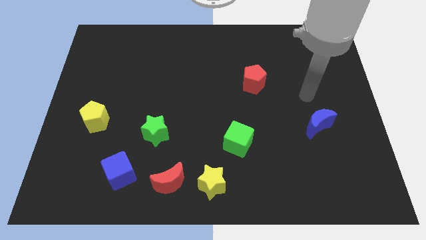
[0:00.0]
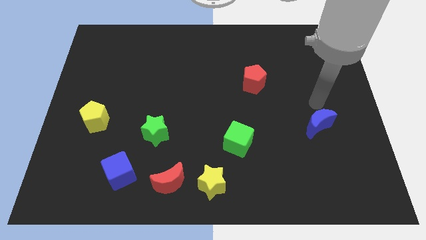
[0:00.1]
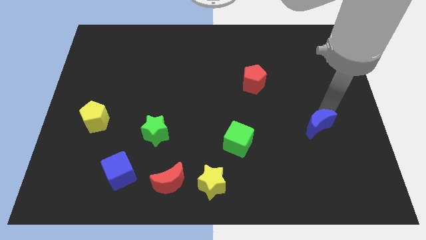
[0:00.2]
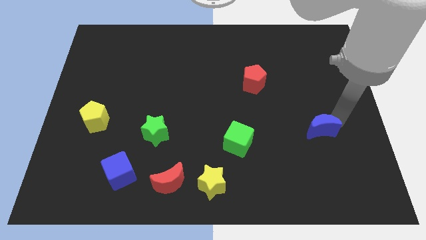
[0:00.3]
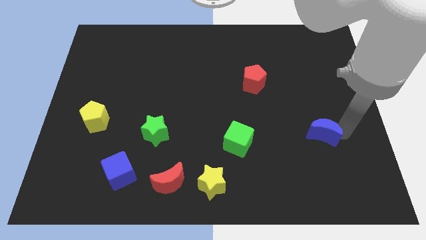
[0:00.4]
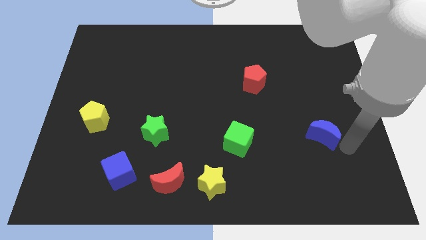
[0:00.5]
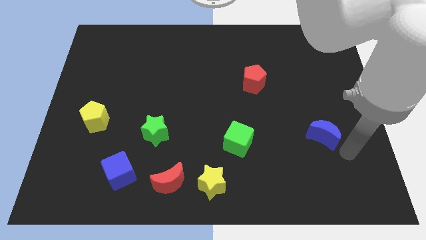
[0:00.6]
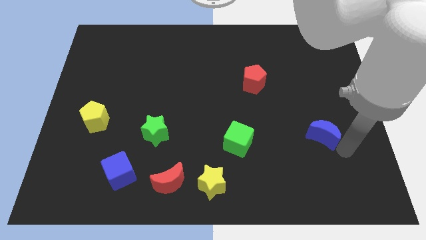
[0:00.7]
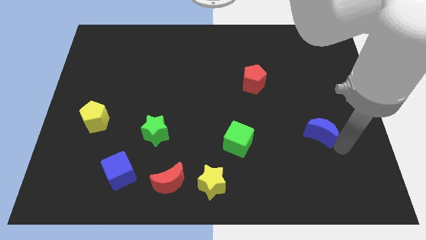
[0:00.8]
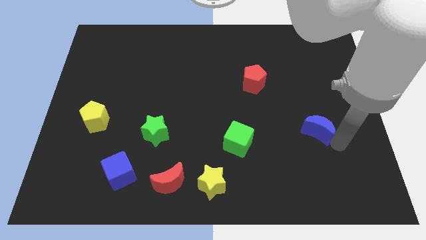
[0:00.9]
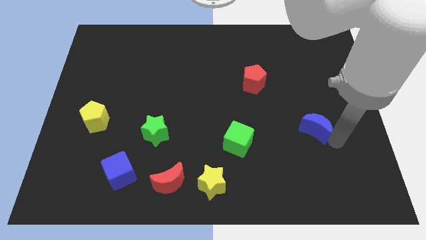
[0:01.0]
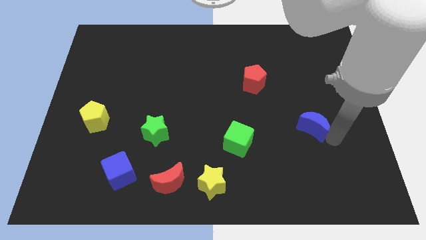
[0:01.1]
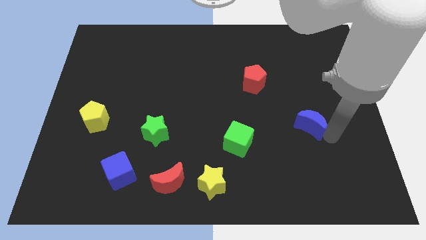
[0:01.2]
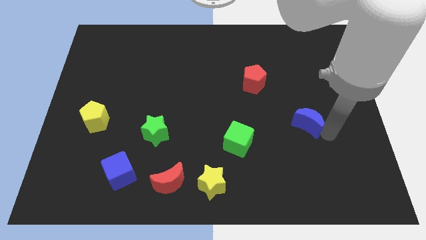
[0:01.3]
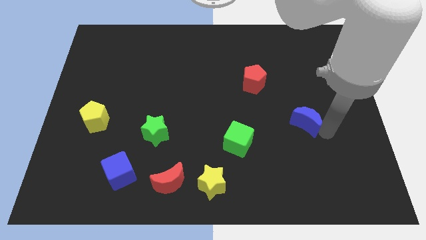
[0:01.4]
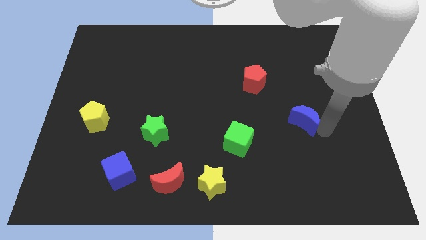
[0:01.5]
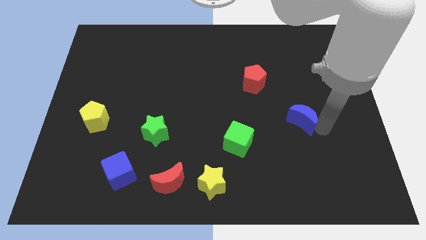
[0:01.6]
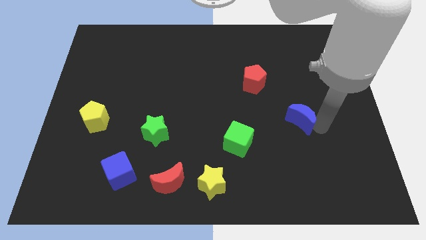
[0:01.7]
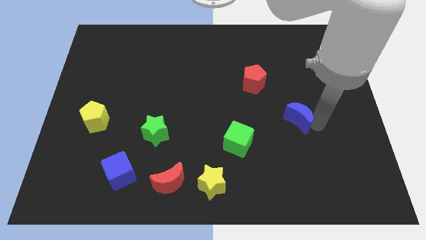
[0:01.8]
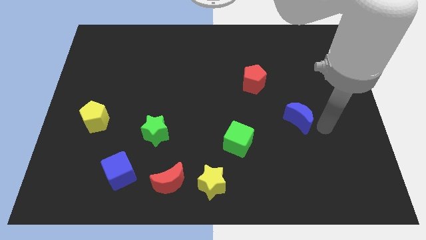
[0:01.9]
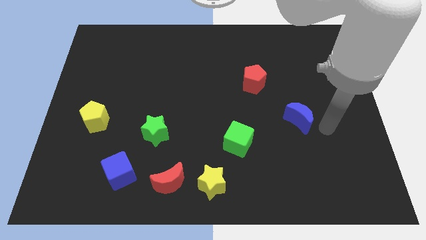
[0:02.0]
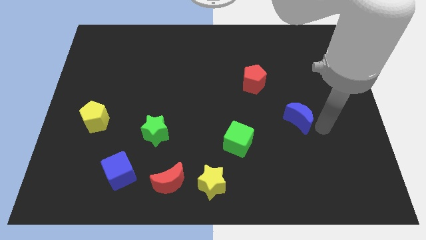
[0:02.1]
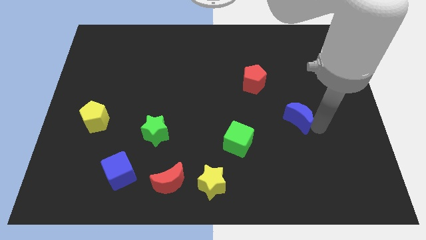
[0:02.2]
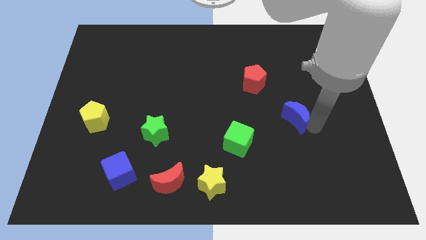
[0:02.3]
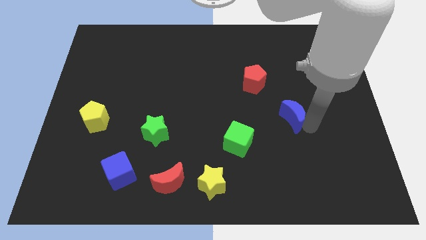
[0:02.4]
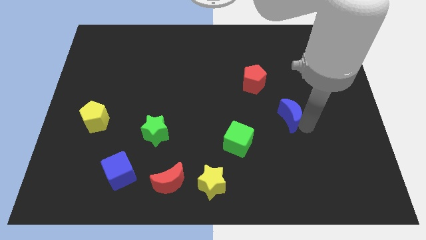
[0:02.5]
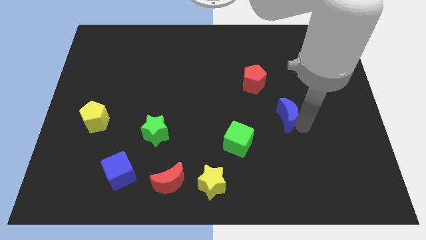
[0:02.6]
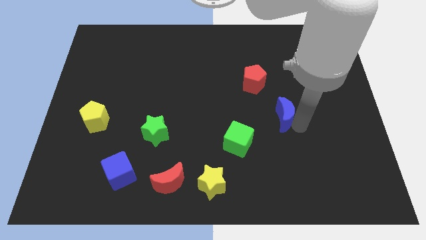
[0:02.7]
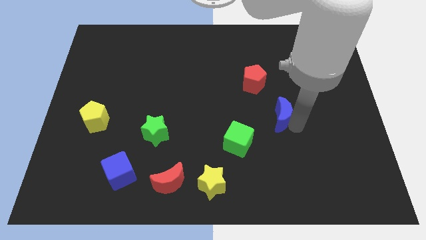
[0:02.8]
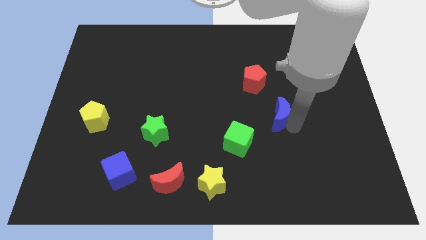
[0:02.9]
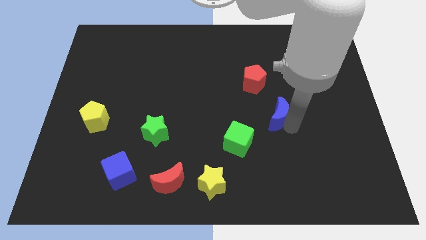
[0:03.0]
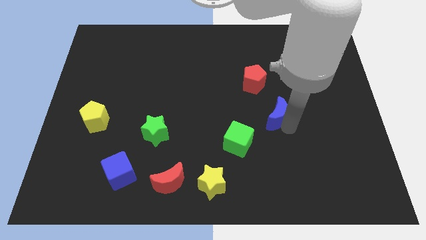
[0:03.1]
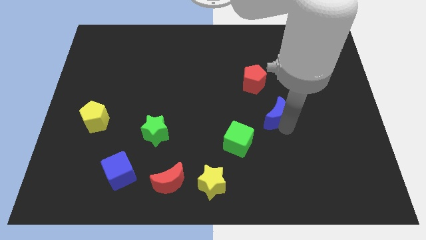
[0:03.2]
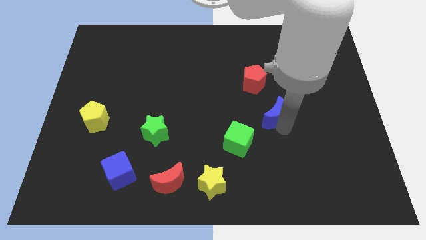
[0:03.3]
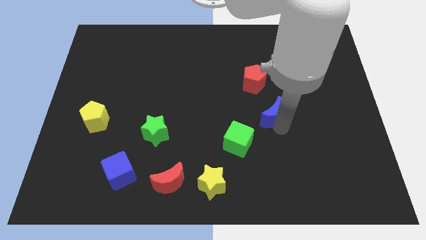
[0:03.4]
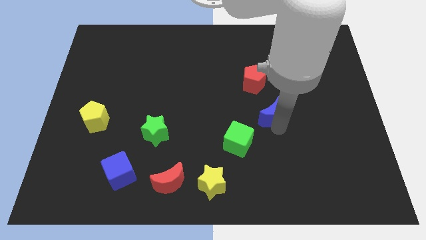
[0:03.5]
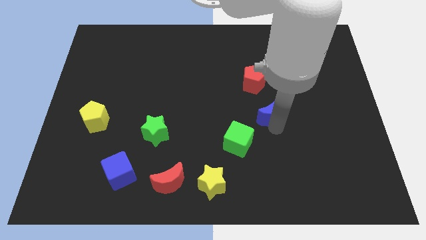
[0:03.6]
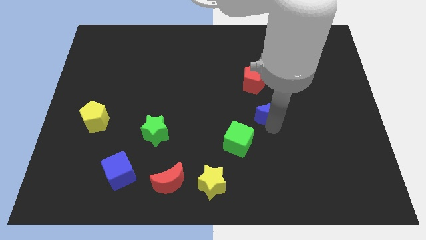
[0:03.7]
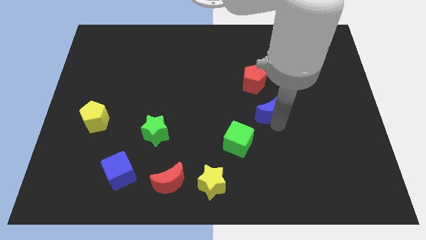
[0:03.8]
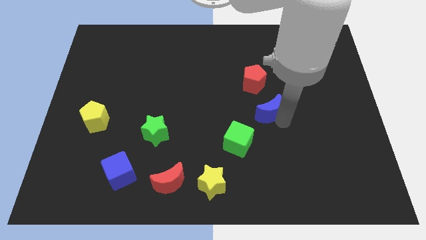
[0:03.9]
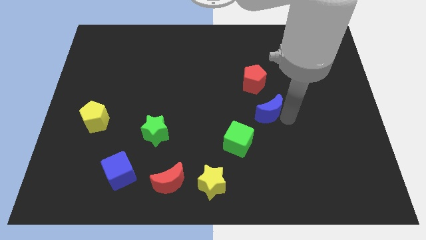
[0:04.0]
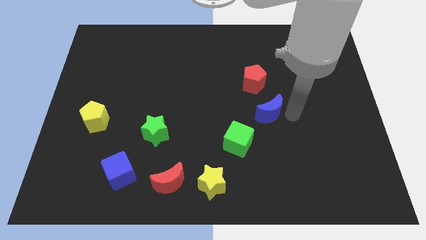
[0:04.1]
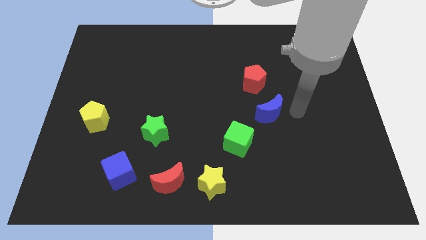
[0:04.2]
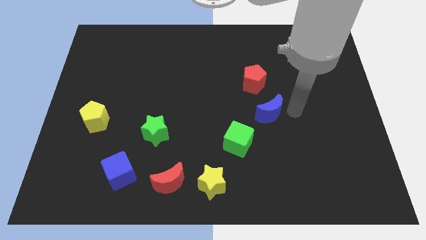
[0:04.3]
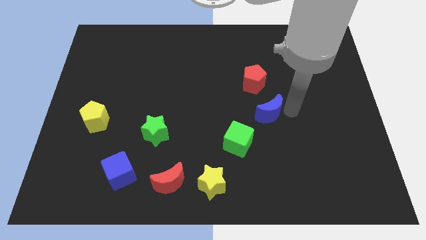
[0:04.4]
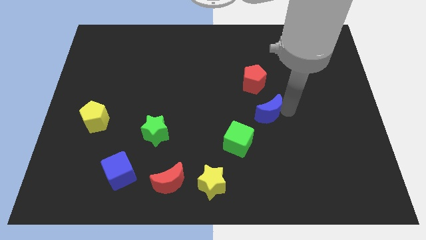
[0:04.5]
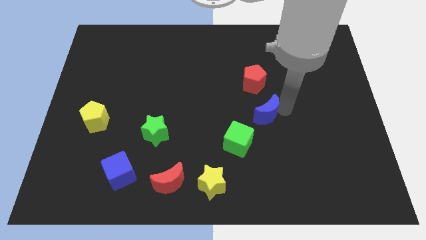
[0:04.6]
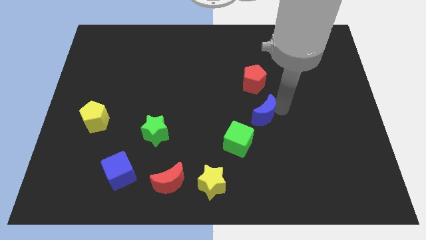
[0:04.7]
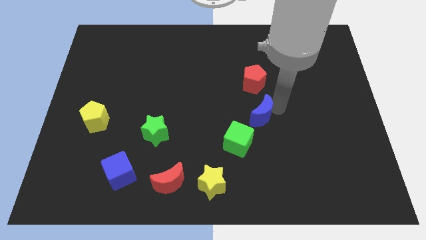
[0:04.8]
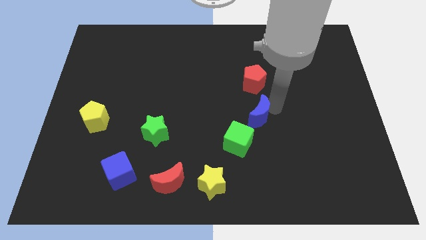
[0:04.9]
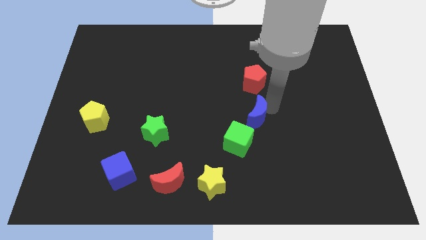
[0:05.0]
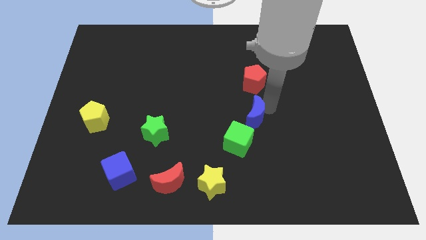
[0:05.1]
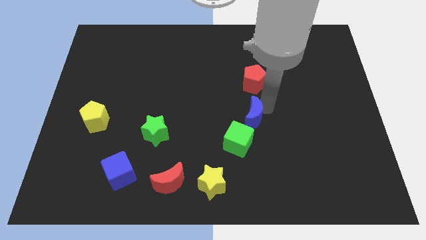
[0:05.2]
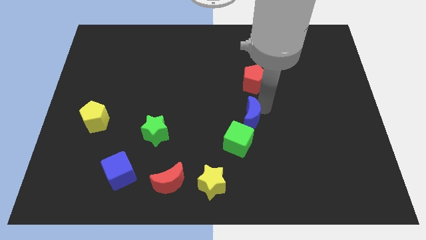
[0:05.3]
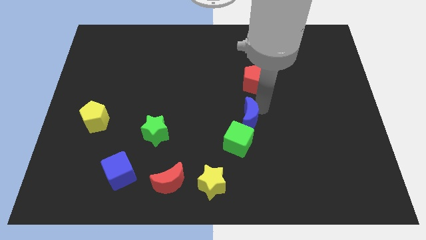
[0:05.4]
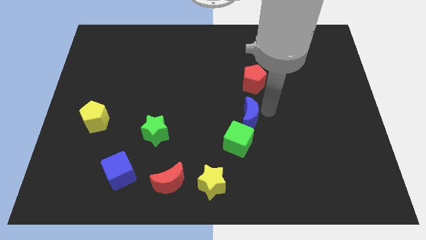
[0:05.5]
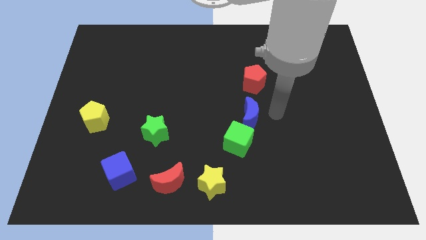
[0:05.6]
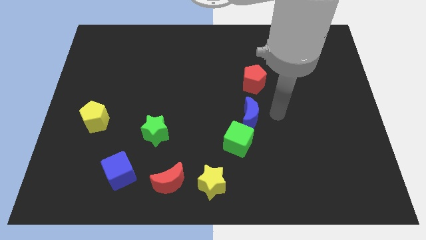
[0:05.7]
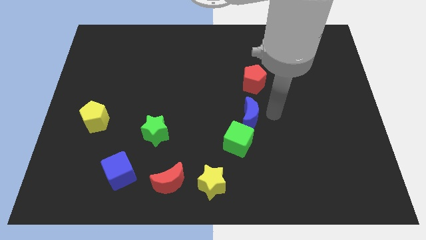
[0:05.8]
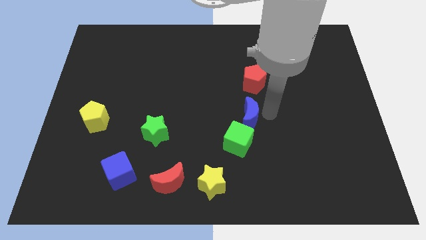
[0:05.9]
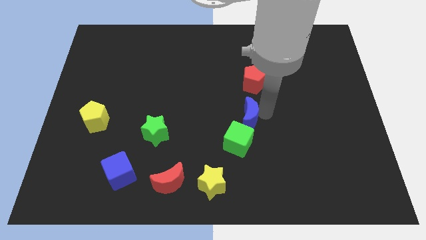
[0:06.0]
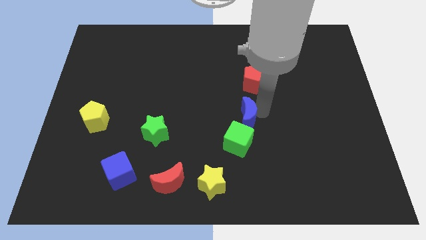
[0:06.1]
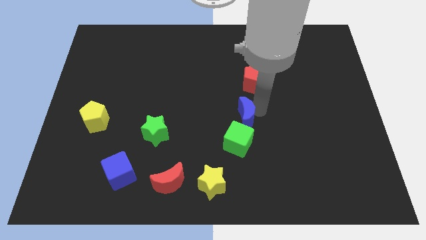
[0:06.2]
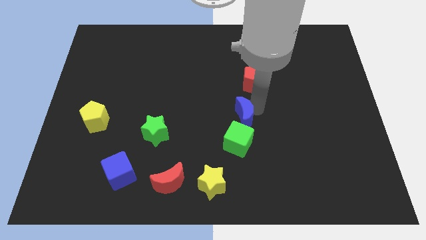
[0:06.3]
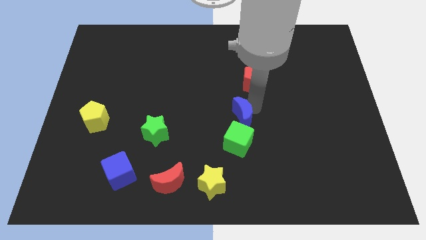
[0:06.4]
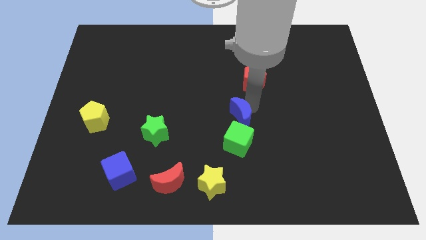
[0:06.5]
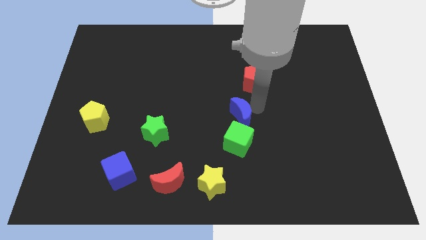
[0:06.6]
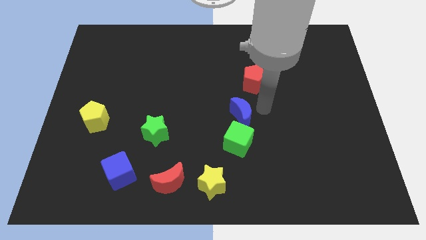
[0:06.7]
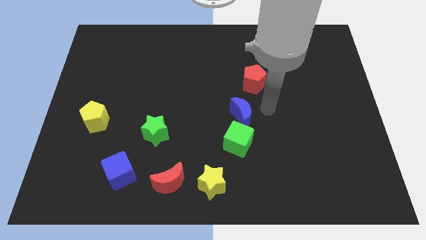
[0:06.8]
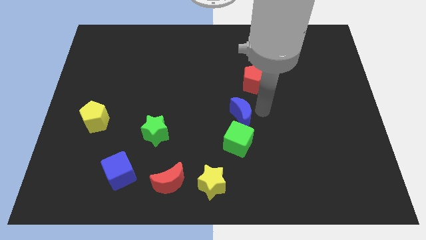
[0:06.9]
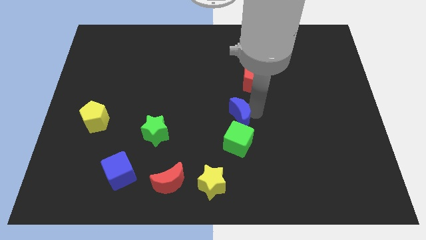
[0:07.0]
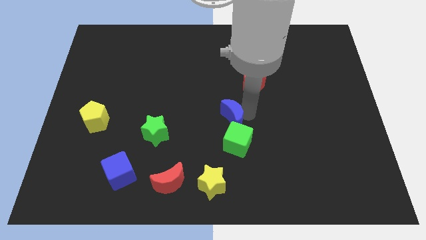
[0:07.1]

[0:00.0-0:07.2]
push the blue moon to the top left side of the green cube

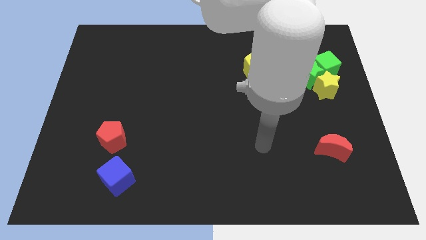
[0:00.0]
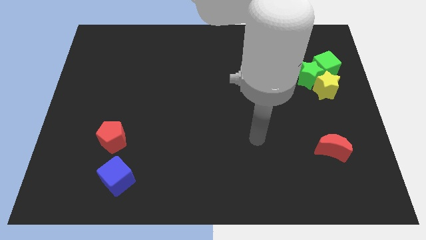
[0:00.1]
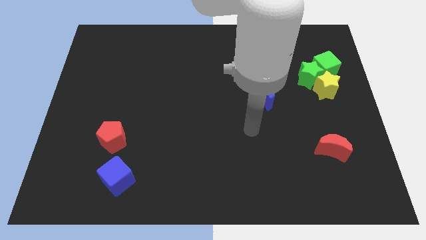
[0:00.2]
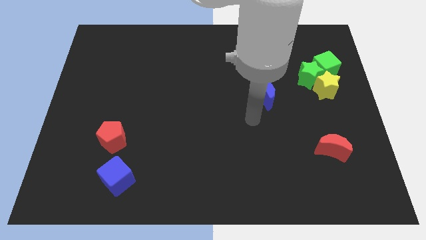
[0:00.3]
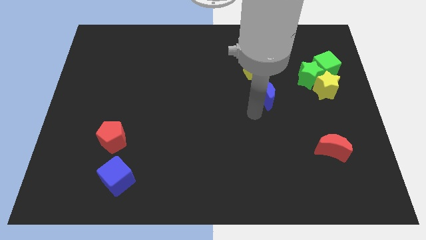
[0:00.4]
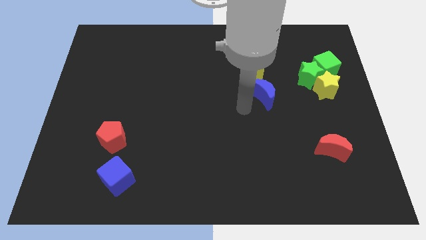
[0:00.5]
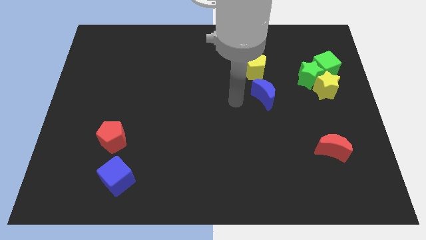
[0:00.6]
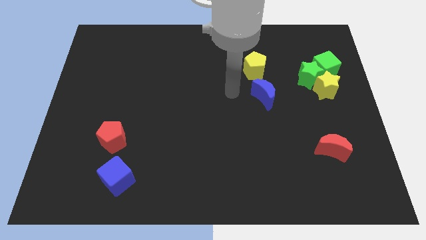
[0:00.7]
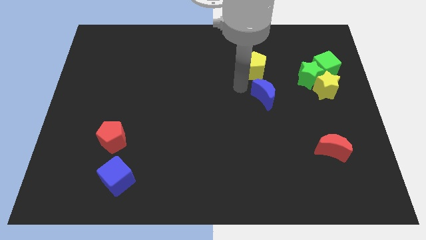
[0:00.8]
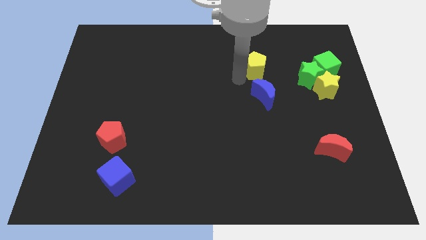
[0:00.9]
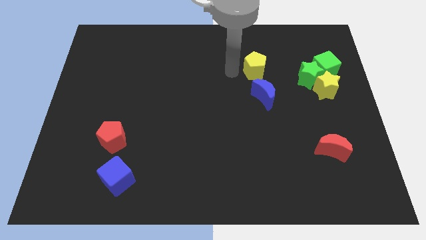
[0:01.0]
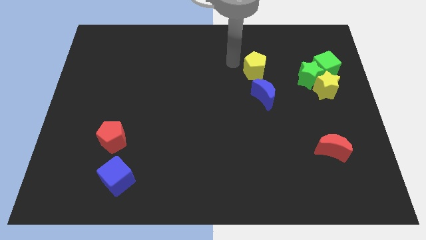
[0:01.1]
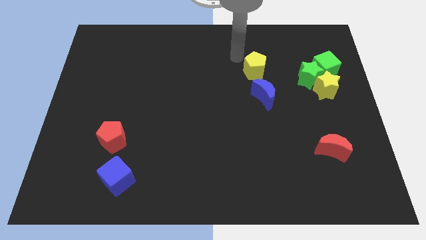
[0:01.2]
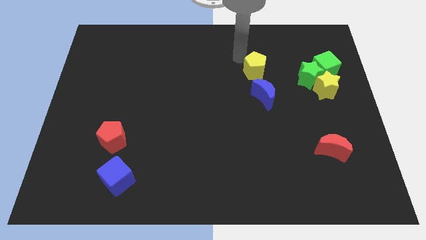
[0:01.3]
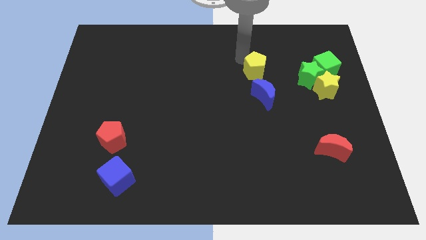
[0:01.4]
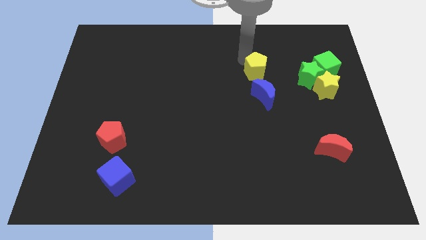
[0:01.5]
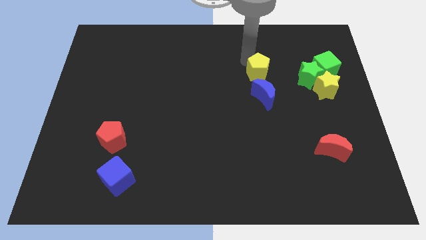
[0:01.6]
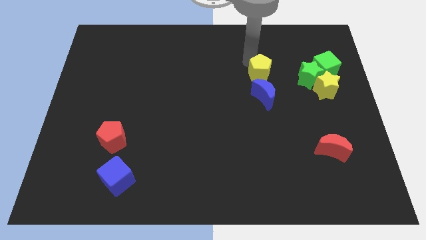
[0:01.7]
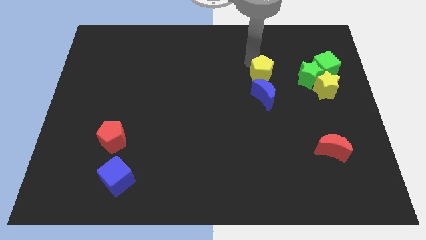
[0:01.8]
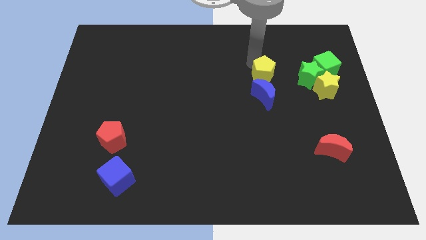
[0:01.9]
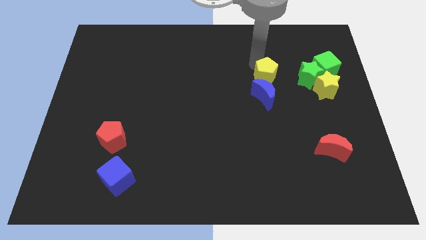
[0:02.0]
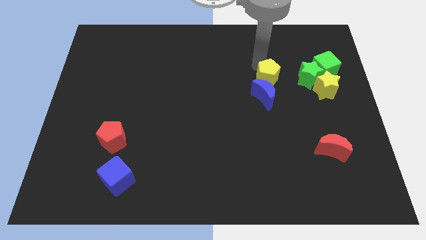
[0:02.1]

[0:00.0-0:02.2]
put the yellow pentagon to the left side of the yellow star
